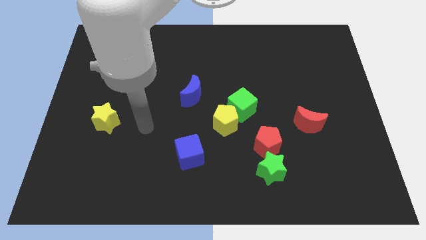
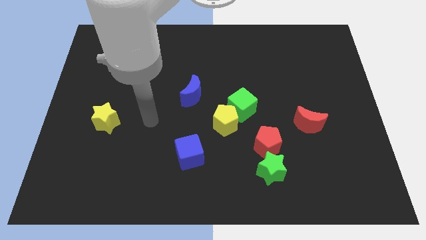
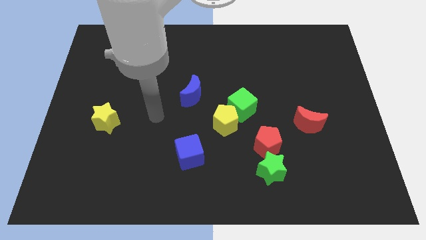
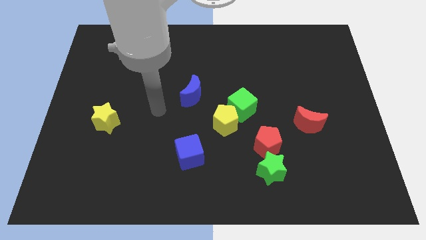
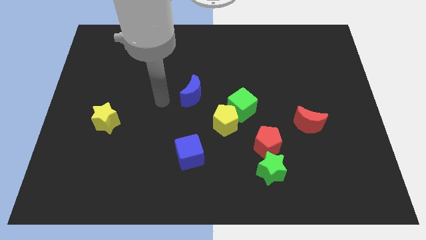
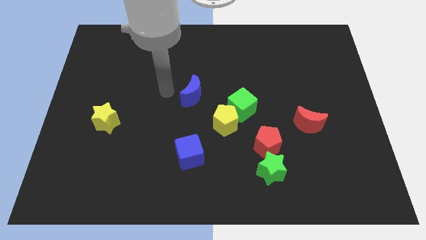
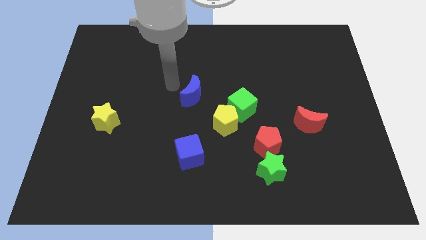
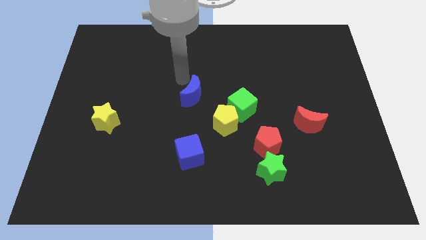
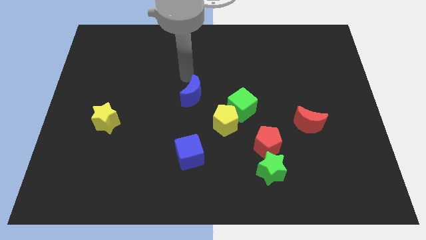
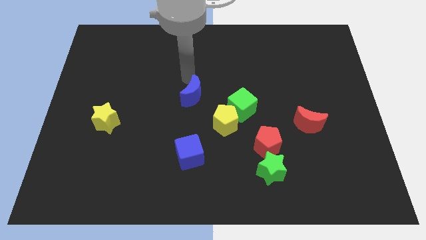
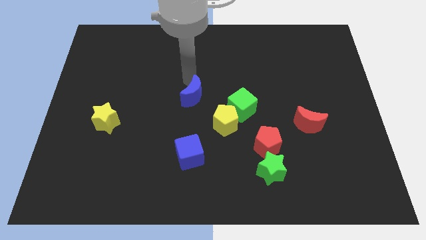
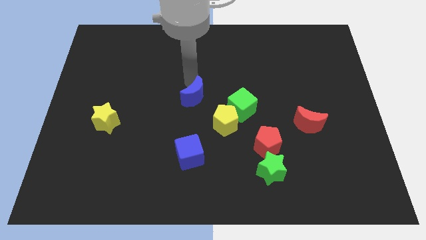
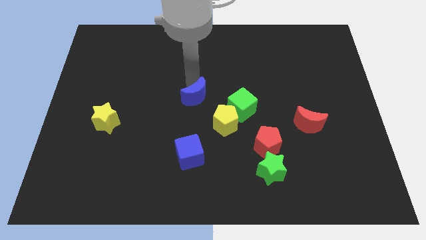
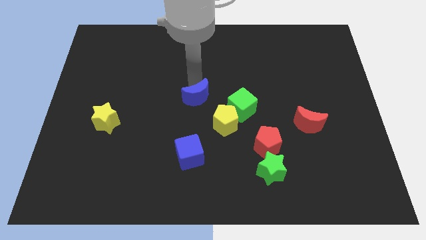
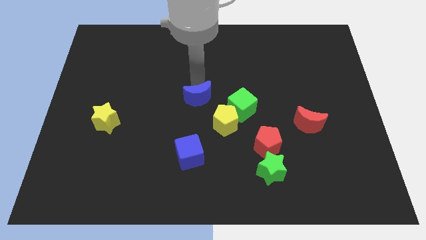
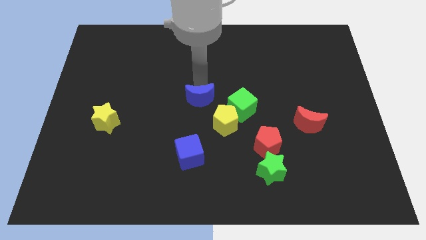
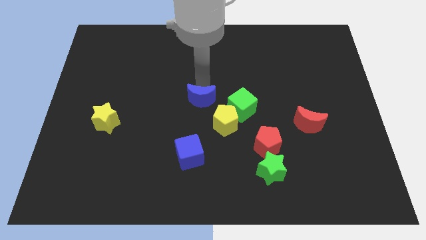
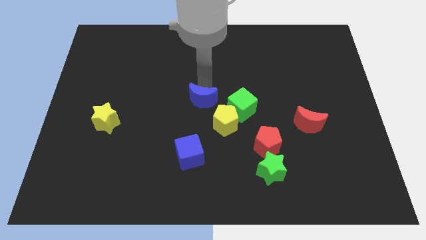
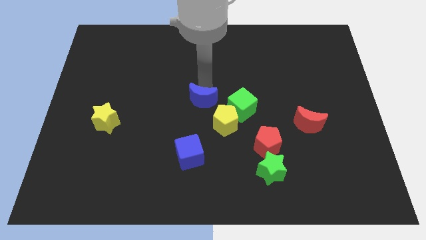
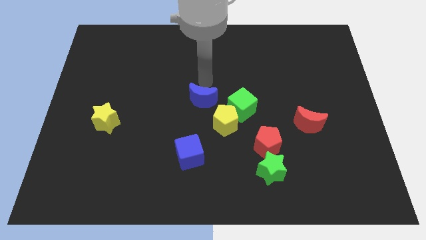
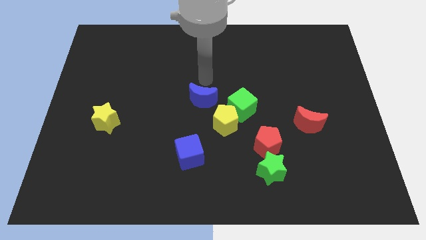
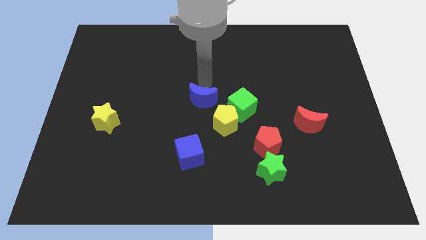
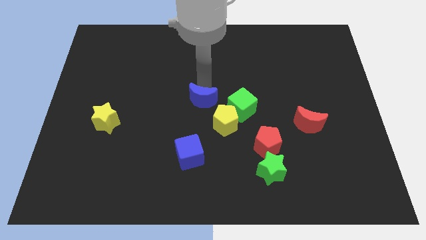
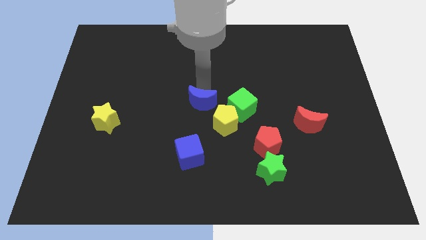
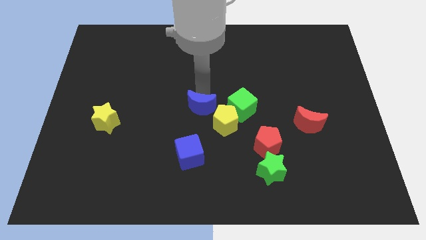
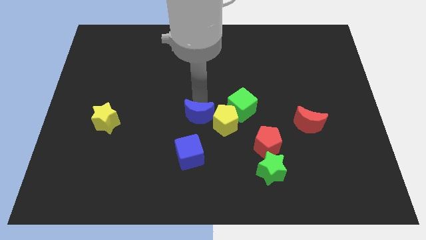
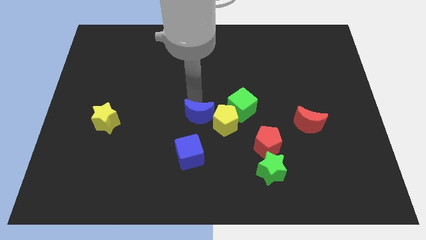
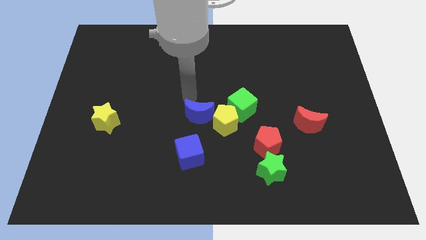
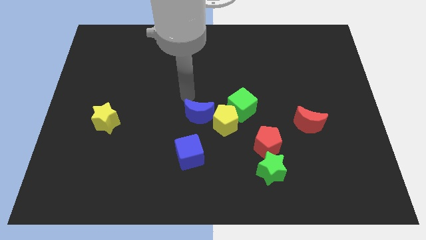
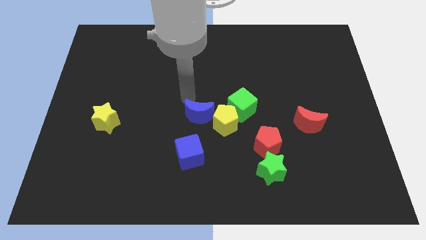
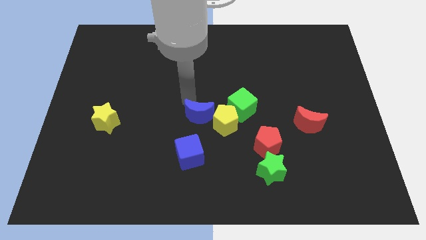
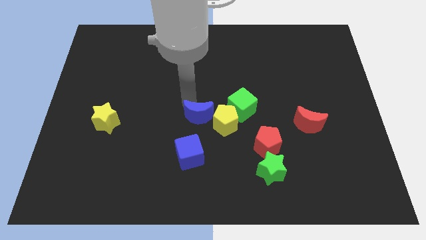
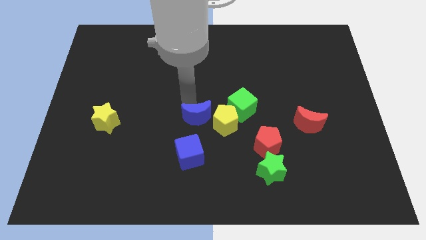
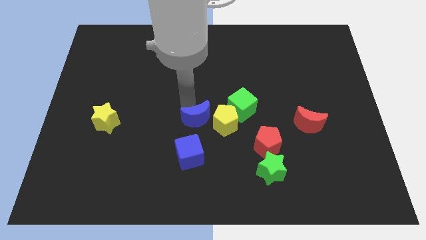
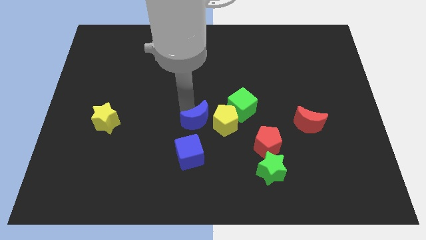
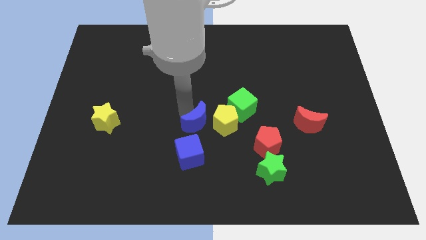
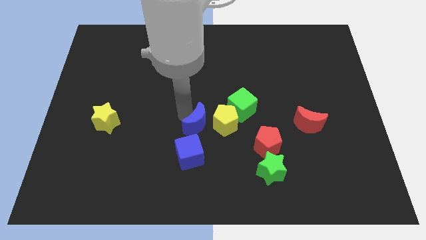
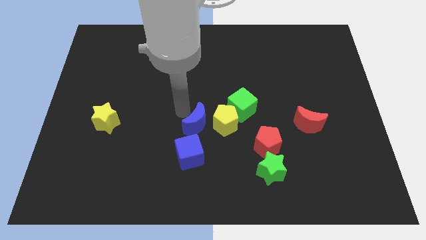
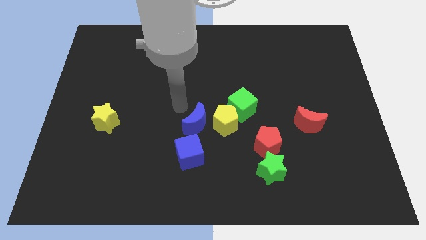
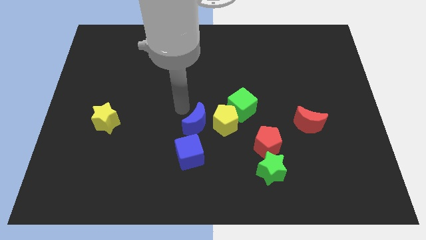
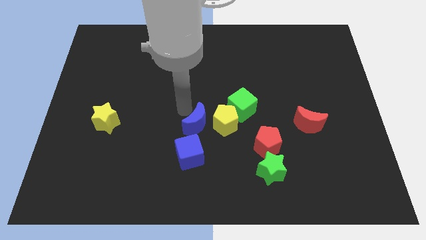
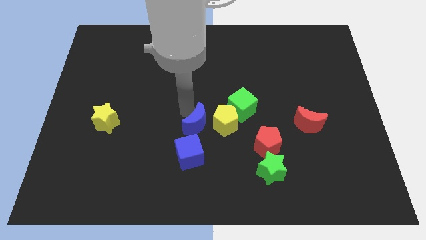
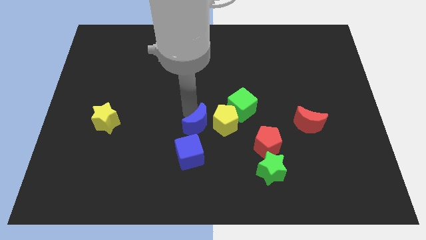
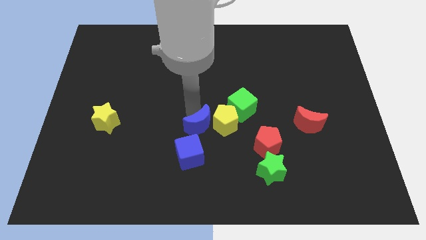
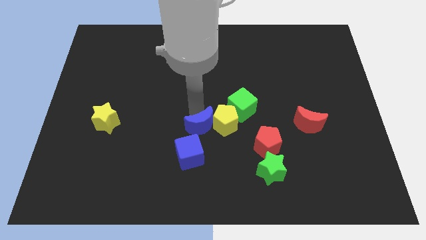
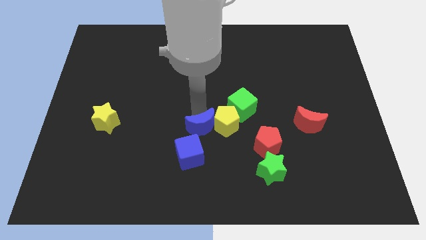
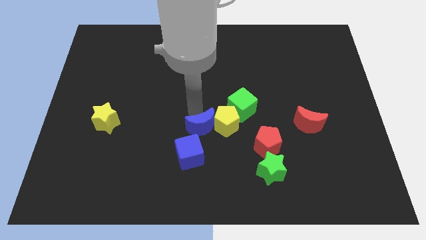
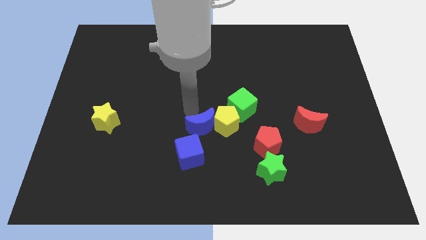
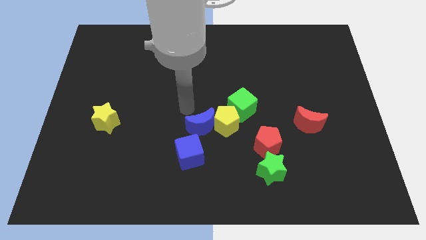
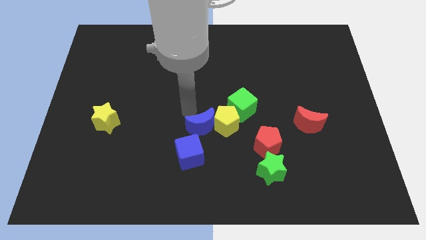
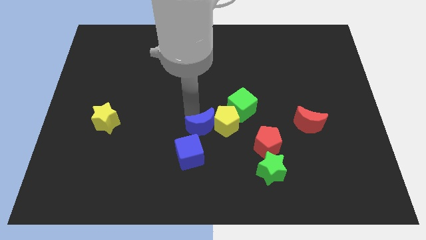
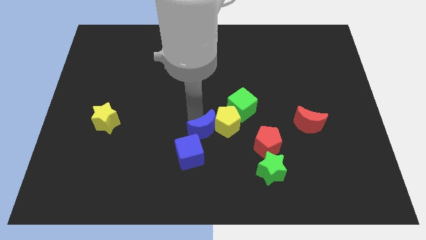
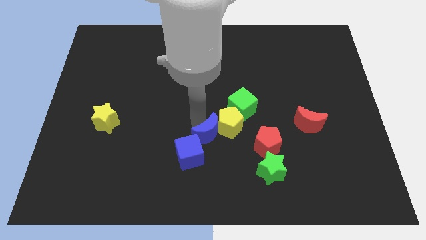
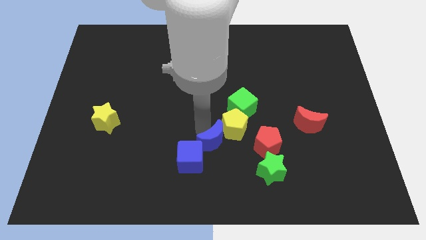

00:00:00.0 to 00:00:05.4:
move the blue moon to the right of the blue cube
